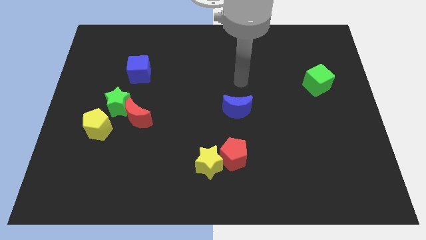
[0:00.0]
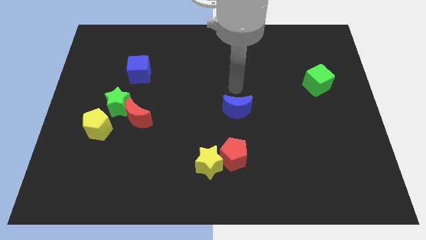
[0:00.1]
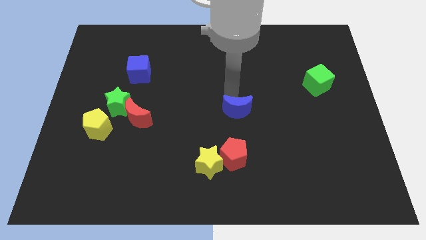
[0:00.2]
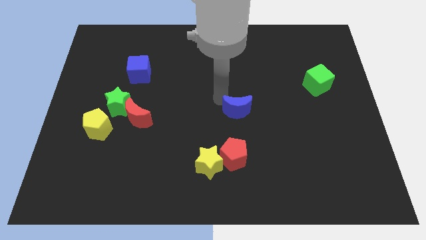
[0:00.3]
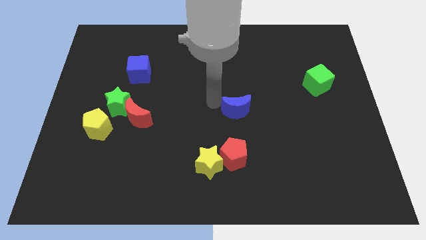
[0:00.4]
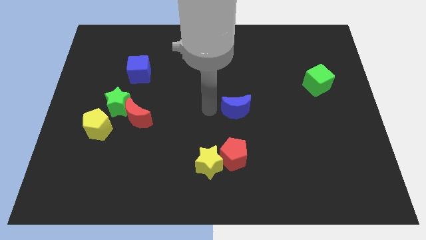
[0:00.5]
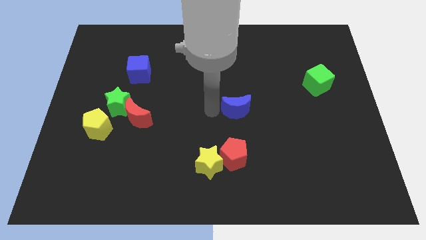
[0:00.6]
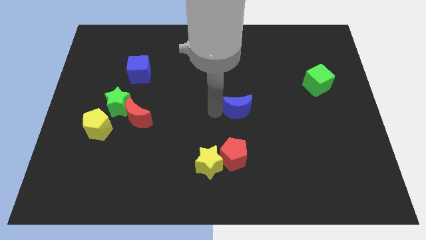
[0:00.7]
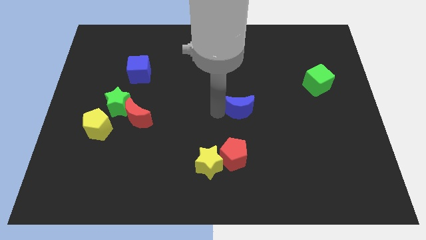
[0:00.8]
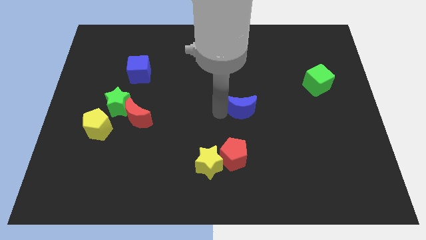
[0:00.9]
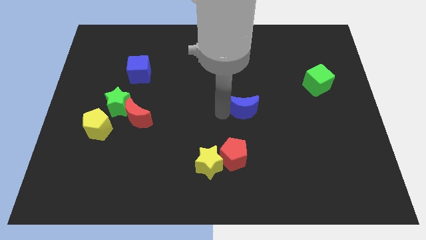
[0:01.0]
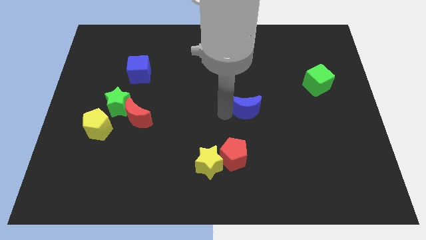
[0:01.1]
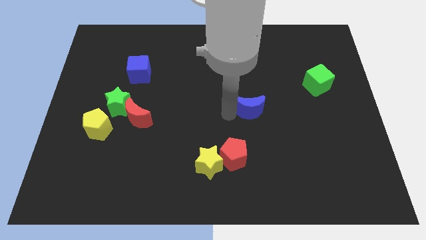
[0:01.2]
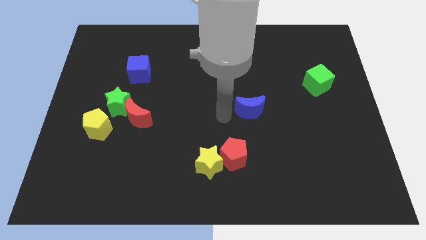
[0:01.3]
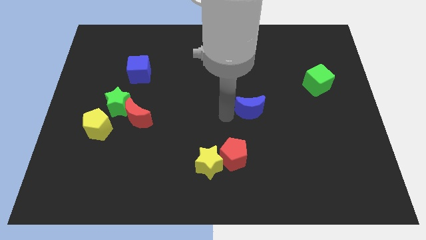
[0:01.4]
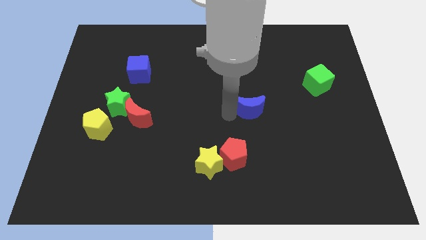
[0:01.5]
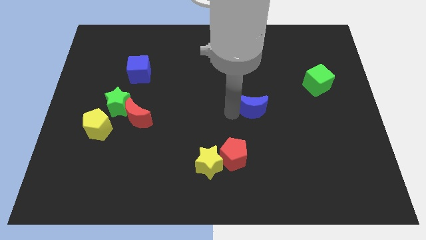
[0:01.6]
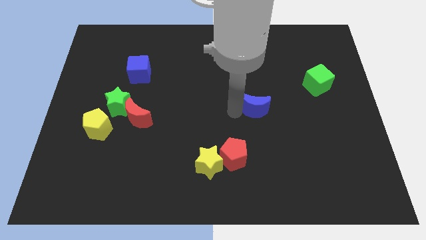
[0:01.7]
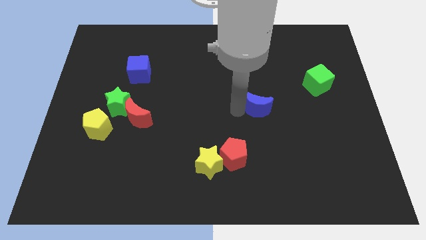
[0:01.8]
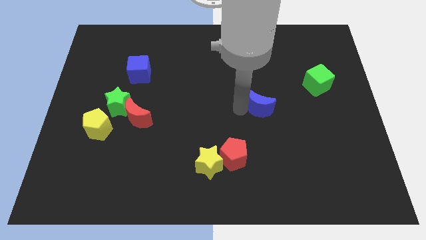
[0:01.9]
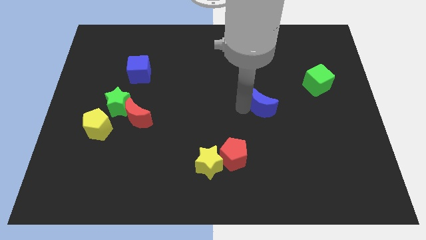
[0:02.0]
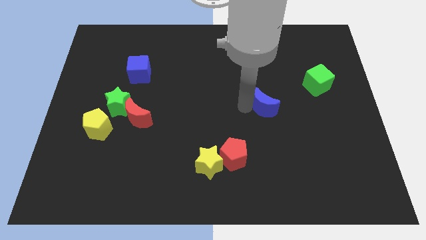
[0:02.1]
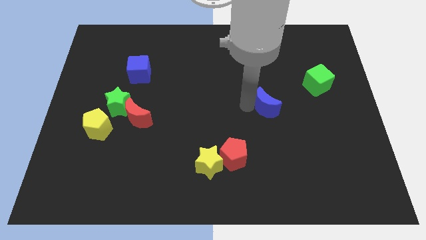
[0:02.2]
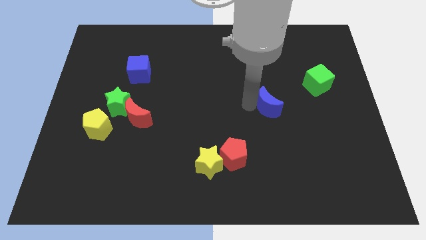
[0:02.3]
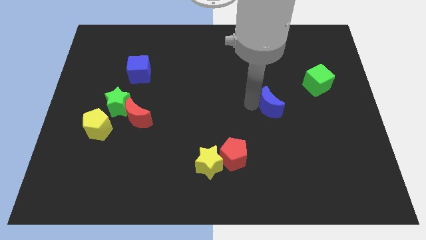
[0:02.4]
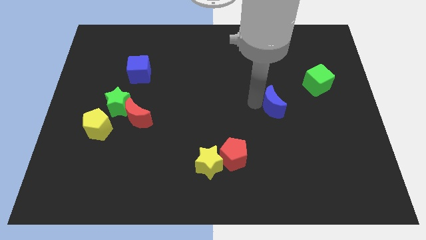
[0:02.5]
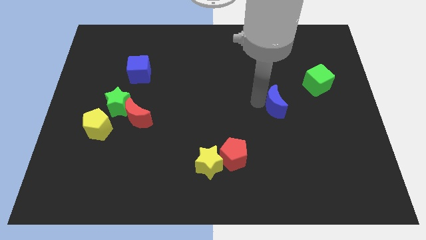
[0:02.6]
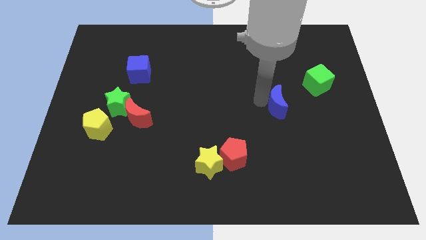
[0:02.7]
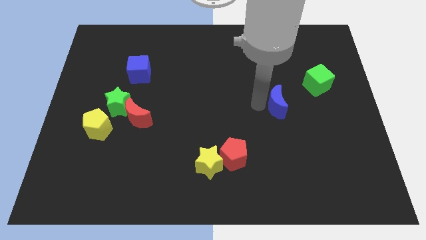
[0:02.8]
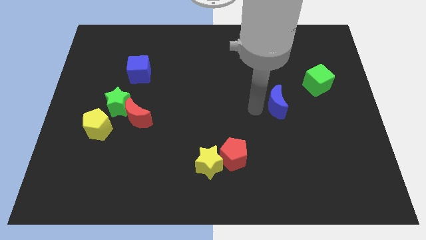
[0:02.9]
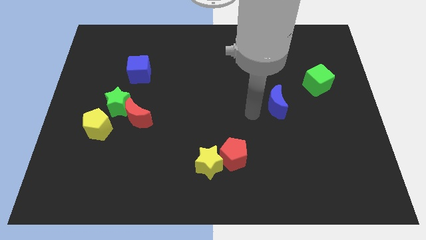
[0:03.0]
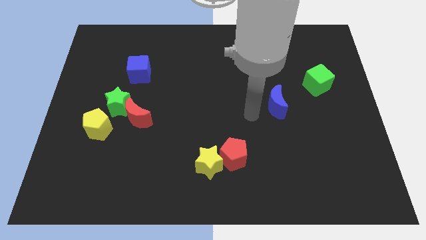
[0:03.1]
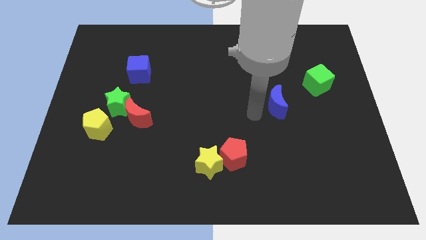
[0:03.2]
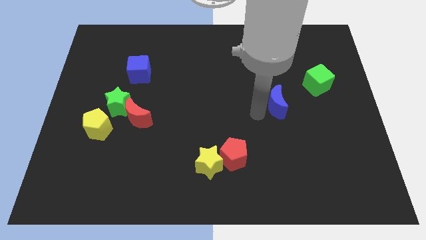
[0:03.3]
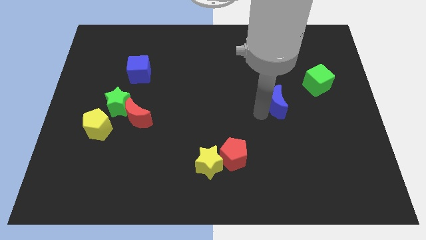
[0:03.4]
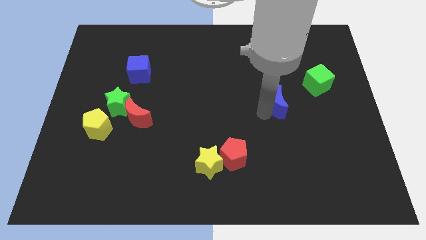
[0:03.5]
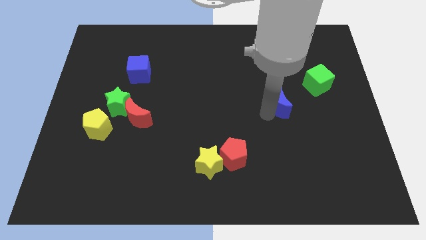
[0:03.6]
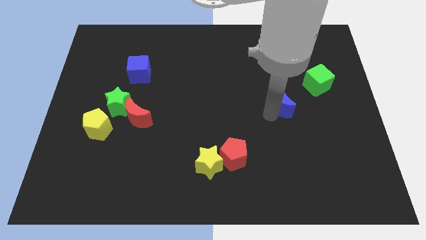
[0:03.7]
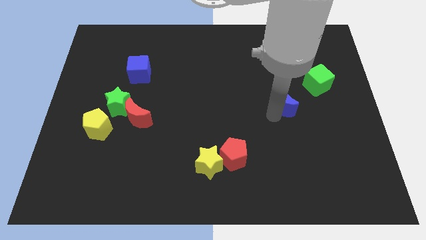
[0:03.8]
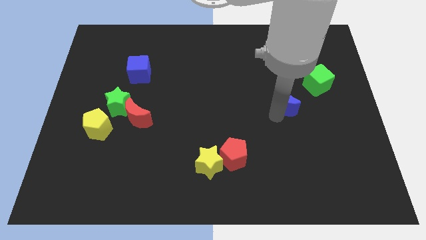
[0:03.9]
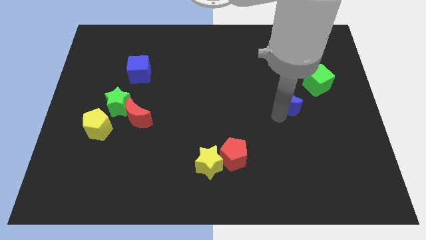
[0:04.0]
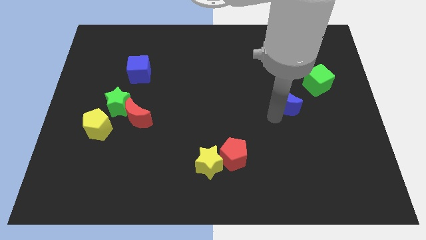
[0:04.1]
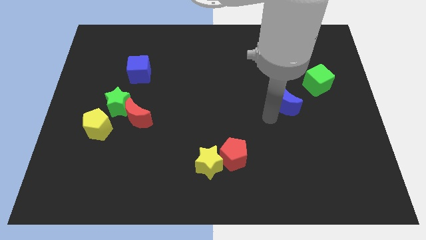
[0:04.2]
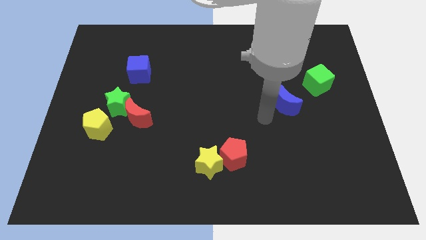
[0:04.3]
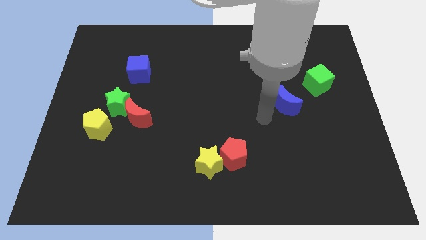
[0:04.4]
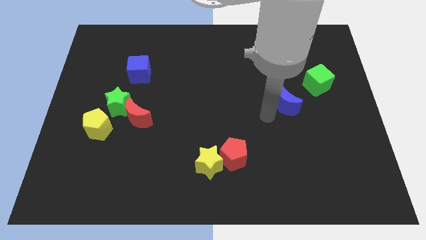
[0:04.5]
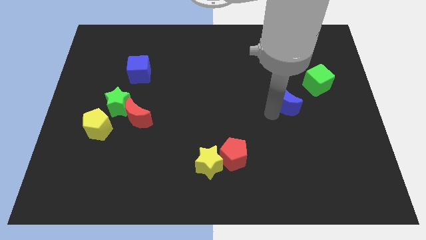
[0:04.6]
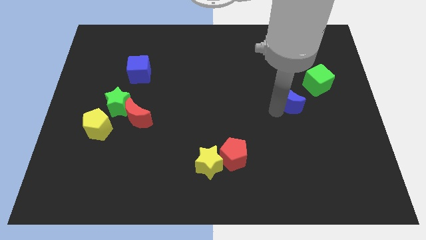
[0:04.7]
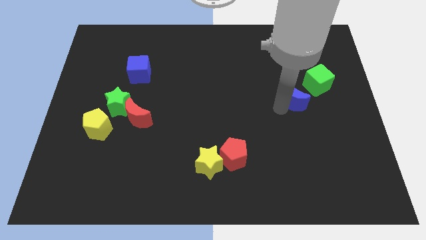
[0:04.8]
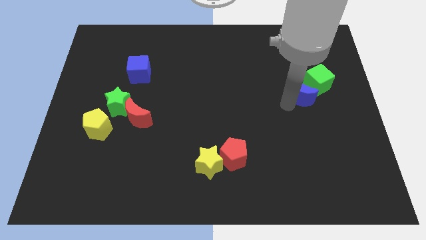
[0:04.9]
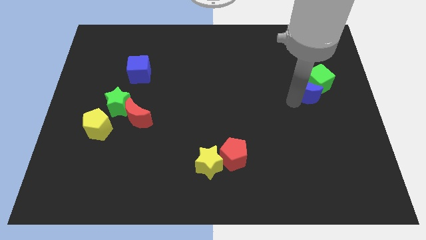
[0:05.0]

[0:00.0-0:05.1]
push the blue moon to the green cube

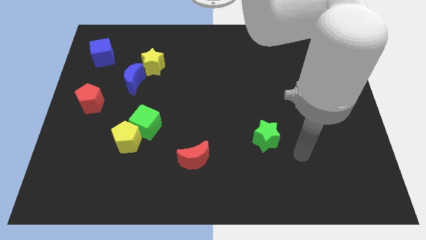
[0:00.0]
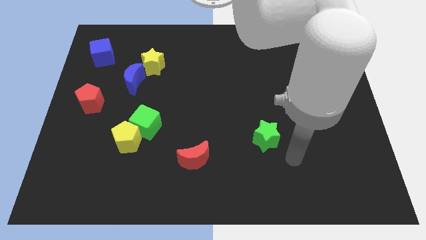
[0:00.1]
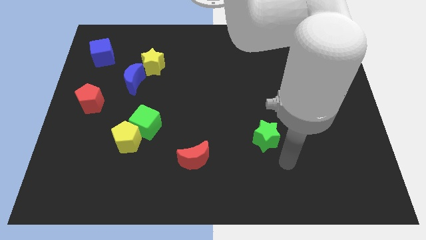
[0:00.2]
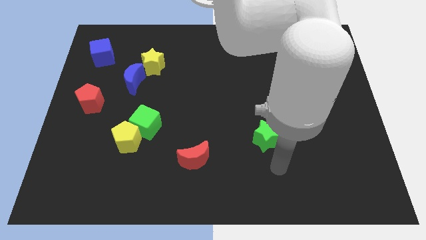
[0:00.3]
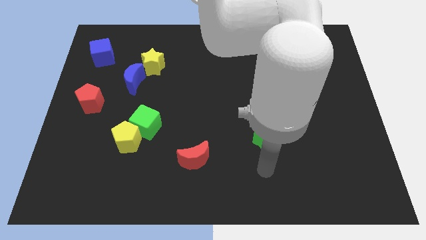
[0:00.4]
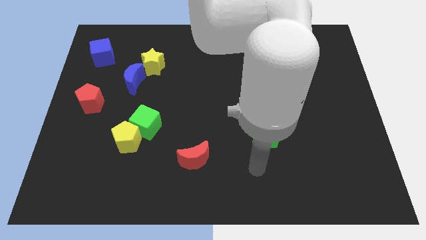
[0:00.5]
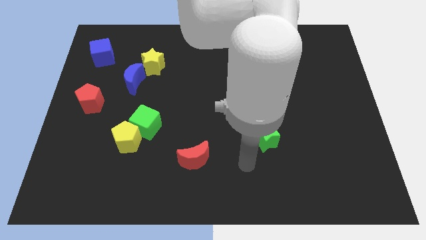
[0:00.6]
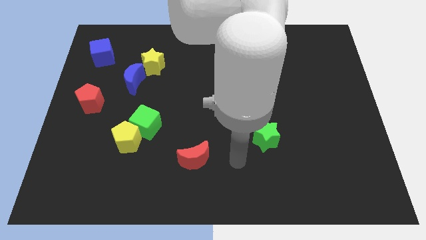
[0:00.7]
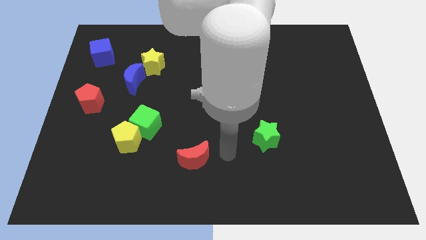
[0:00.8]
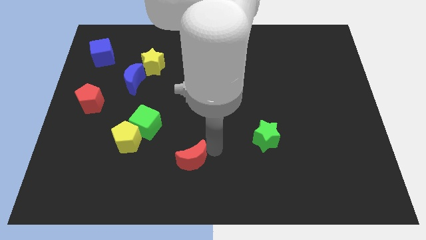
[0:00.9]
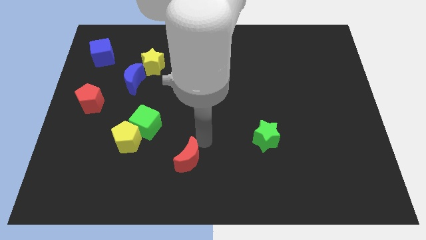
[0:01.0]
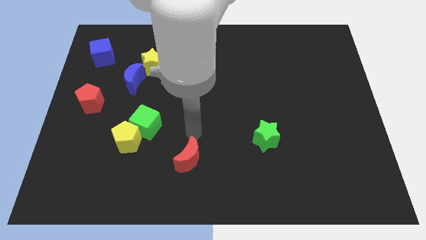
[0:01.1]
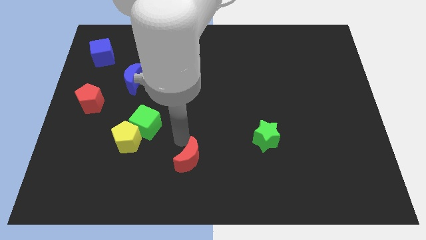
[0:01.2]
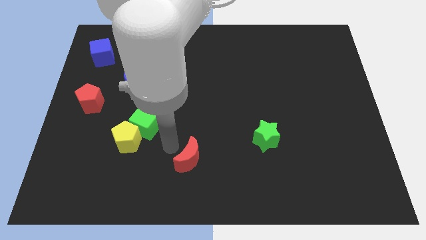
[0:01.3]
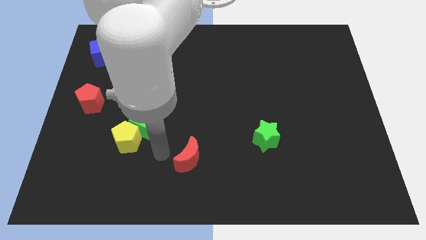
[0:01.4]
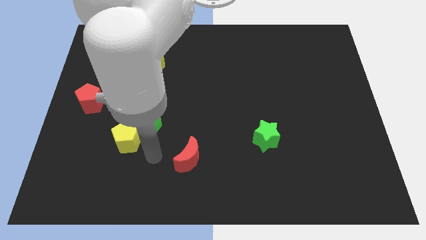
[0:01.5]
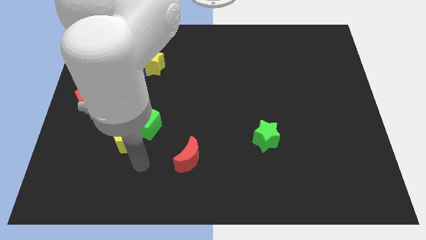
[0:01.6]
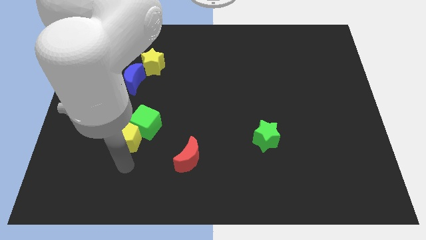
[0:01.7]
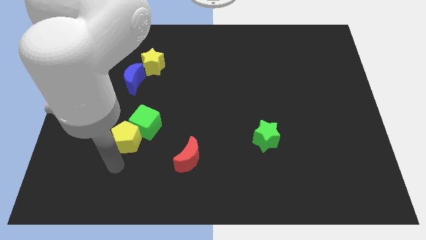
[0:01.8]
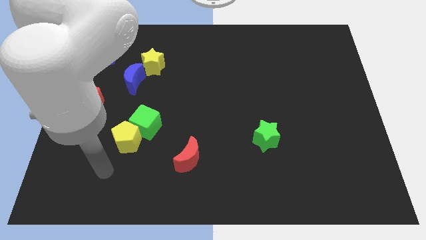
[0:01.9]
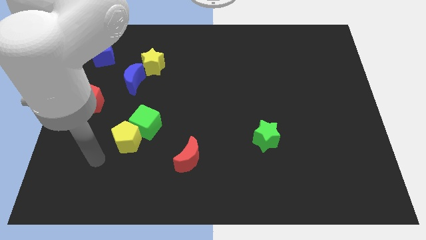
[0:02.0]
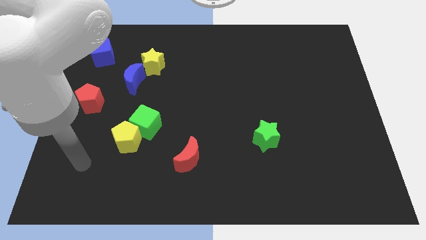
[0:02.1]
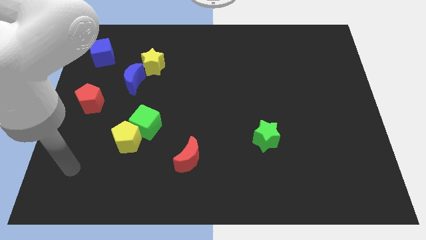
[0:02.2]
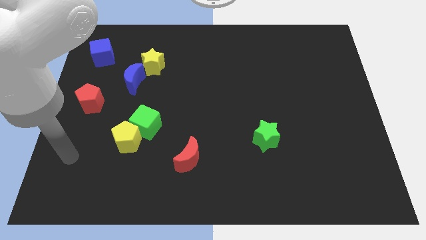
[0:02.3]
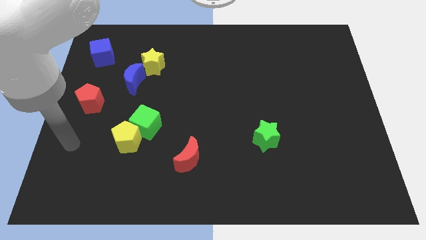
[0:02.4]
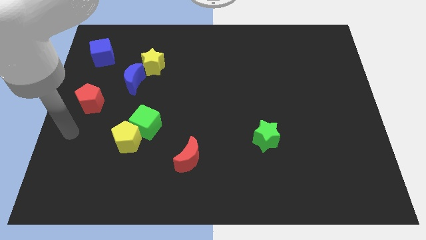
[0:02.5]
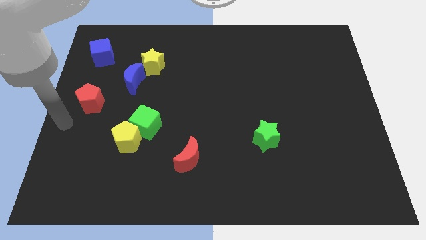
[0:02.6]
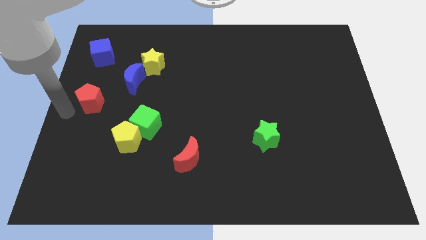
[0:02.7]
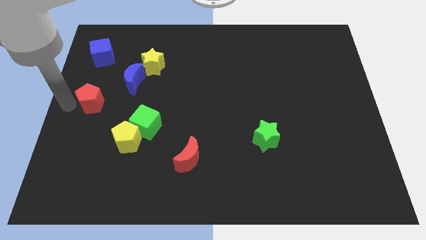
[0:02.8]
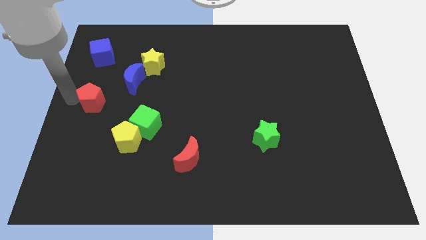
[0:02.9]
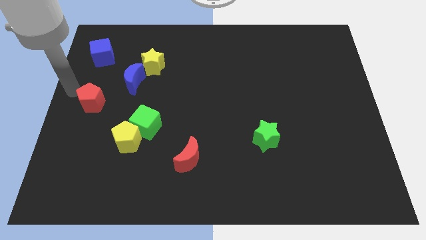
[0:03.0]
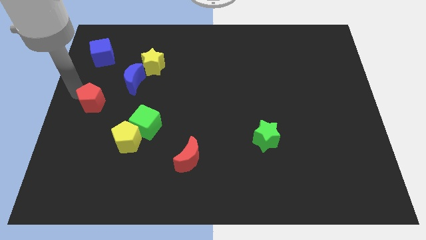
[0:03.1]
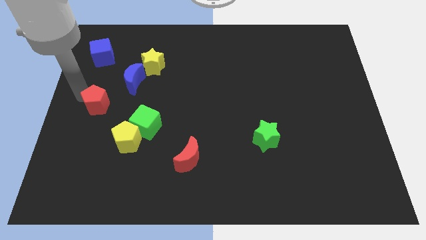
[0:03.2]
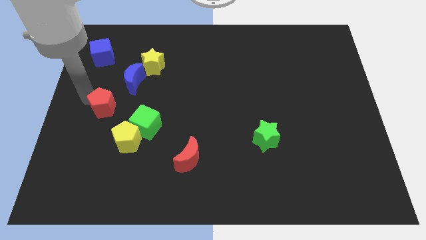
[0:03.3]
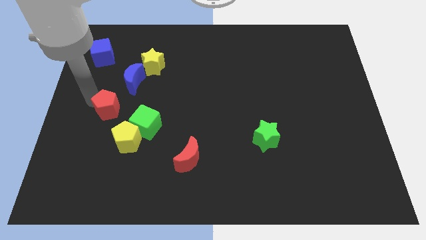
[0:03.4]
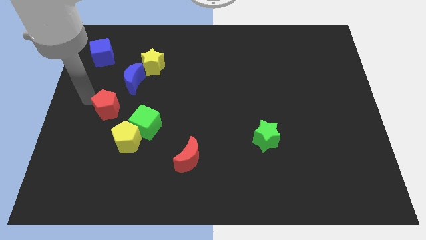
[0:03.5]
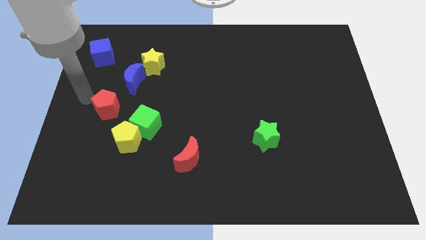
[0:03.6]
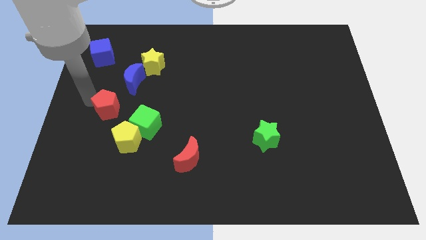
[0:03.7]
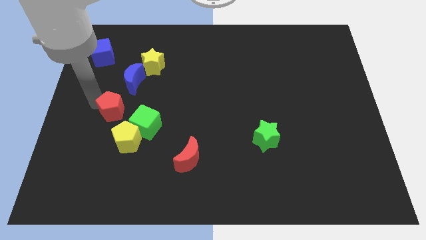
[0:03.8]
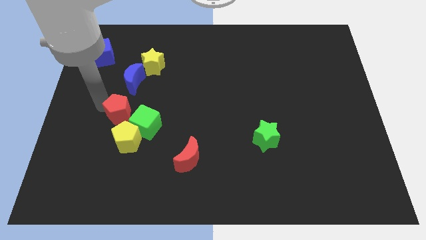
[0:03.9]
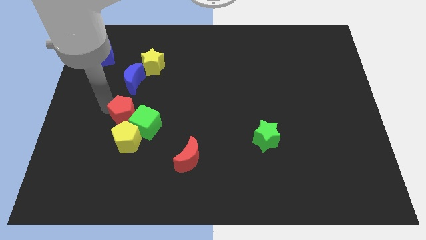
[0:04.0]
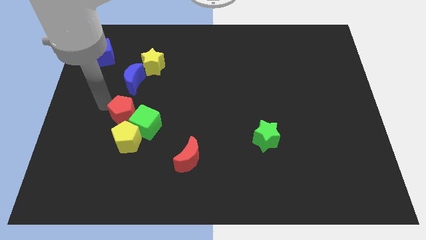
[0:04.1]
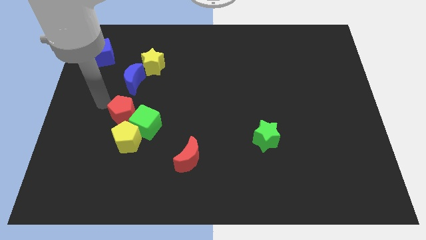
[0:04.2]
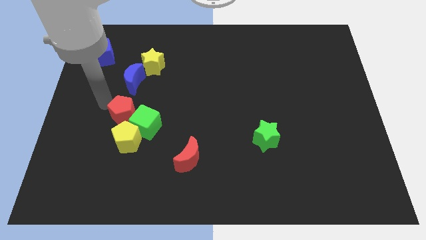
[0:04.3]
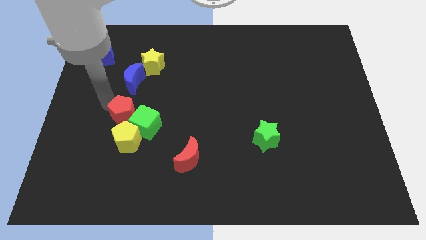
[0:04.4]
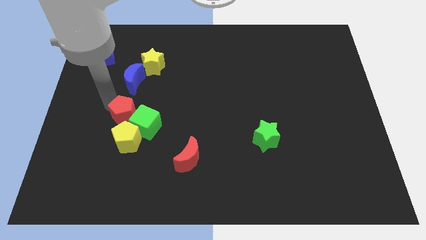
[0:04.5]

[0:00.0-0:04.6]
push the red pentagon close to the green cube
